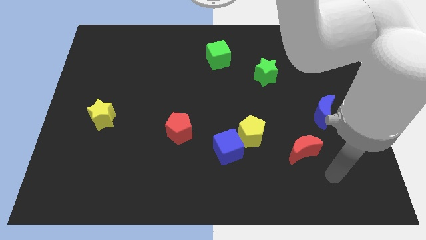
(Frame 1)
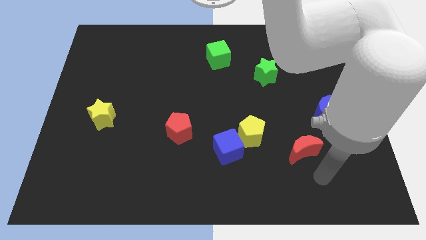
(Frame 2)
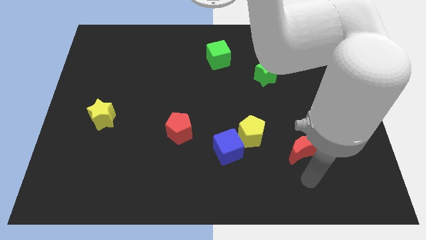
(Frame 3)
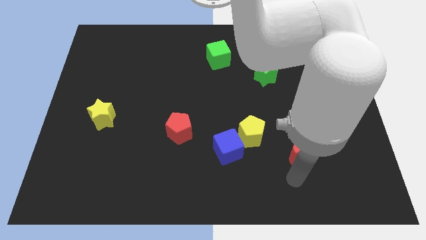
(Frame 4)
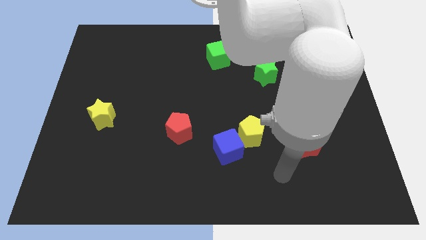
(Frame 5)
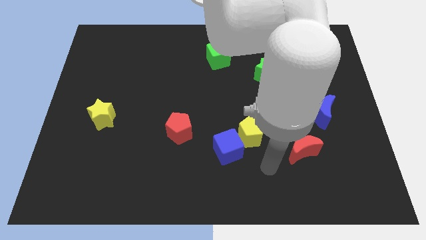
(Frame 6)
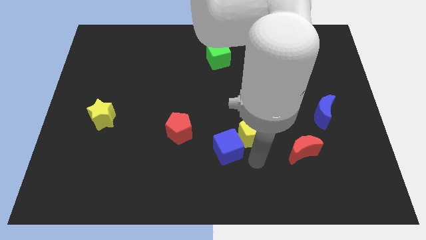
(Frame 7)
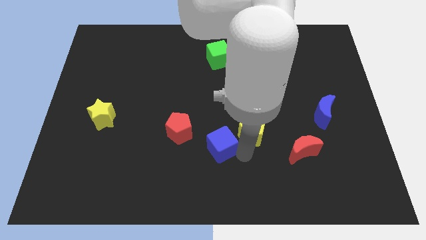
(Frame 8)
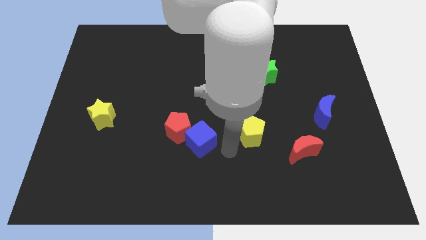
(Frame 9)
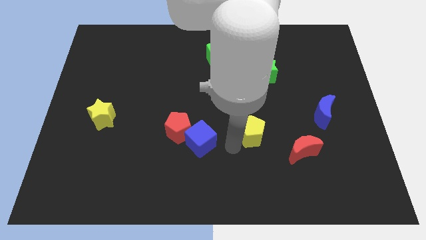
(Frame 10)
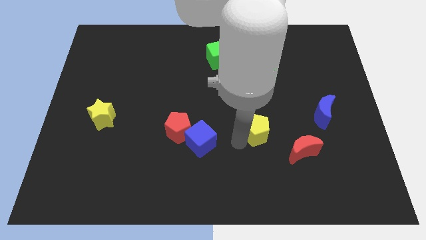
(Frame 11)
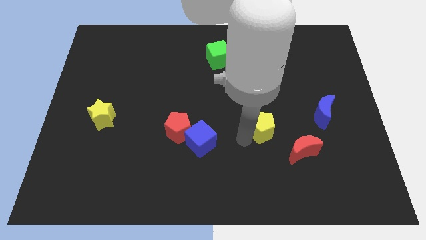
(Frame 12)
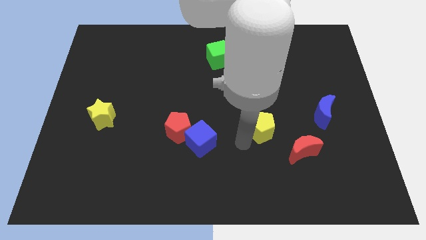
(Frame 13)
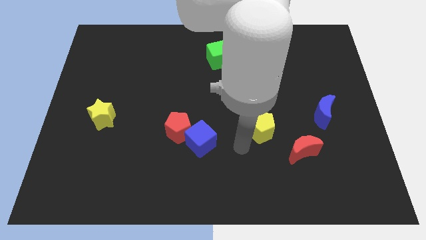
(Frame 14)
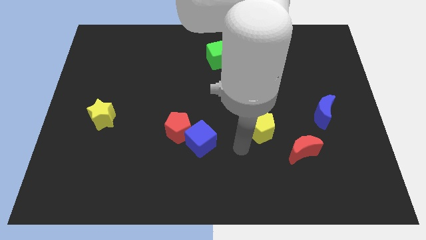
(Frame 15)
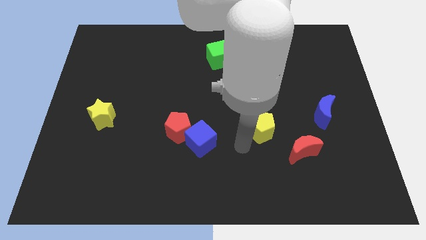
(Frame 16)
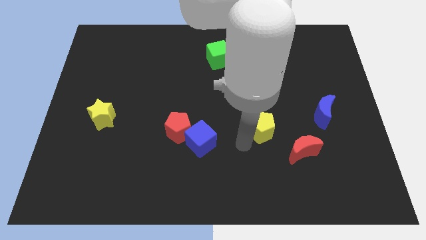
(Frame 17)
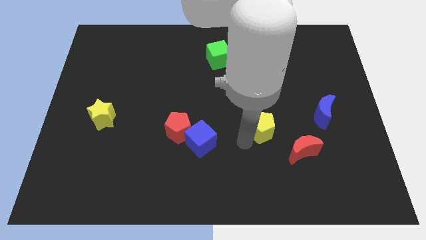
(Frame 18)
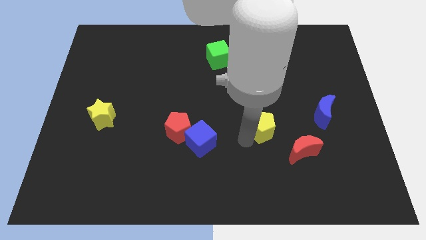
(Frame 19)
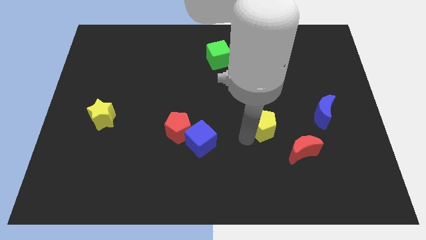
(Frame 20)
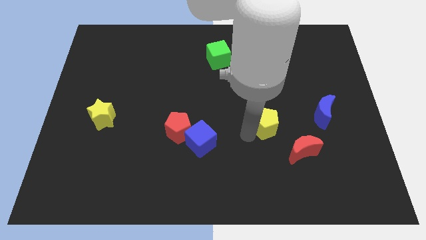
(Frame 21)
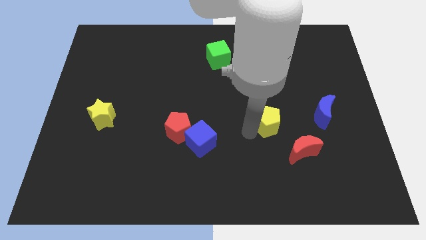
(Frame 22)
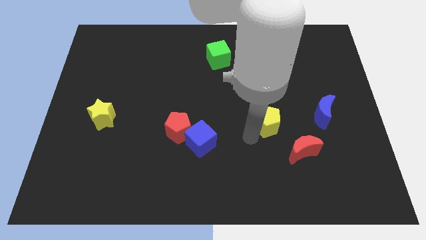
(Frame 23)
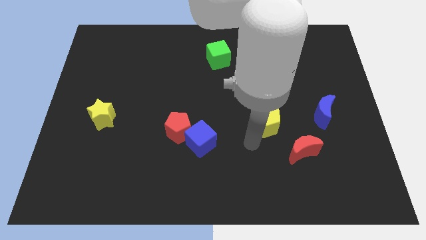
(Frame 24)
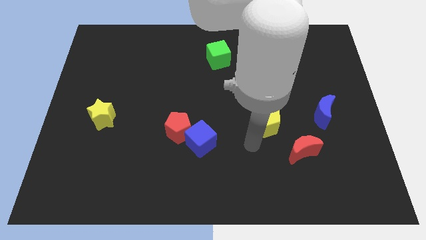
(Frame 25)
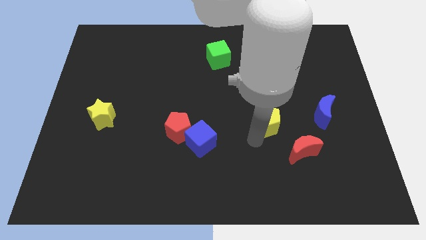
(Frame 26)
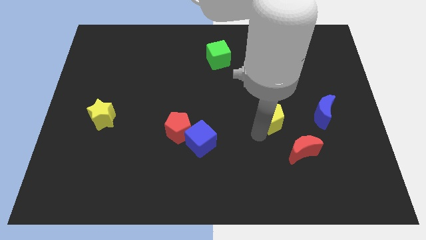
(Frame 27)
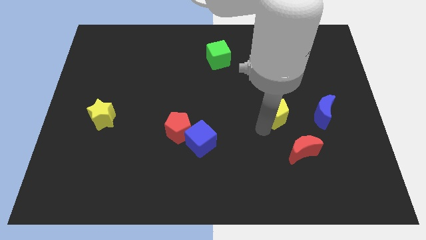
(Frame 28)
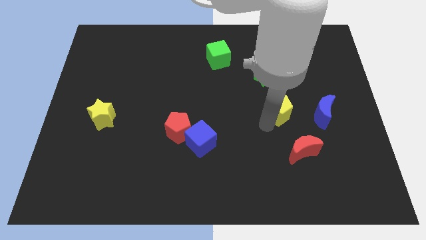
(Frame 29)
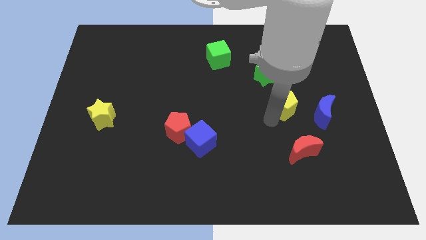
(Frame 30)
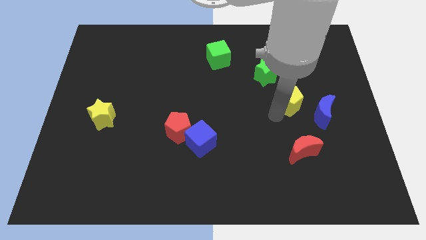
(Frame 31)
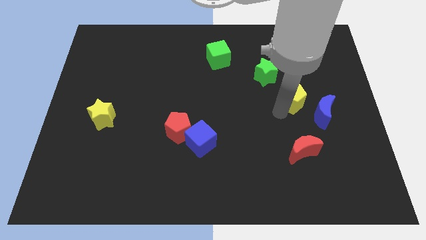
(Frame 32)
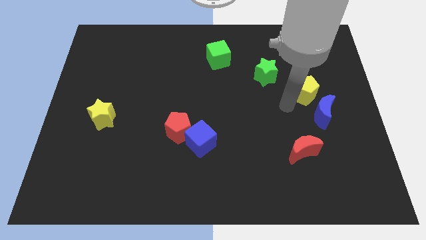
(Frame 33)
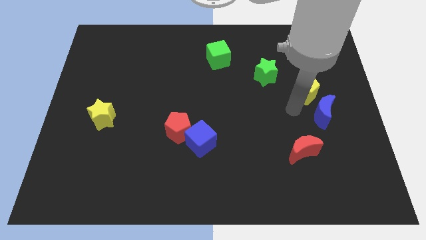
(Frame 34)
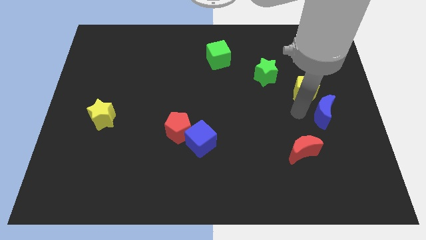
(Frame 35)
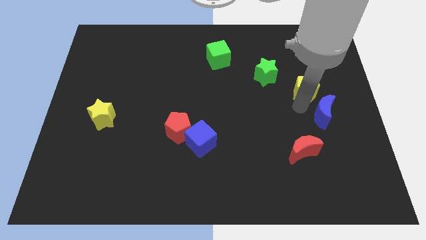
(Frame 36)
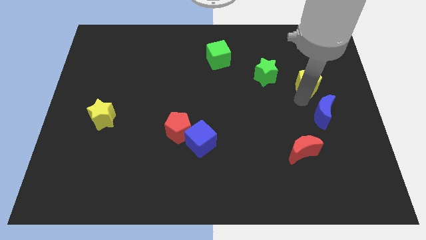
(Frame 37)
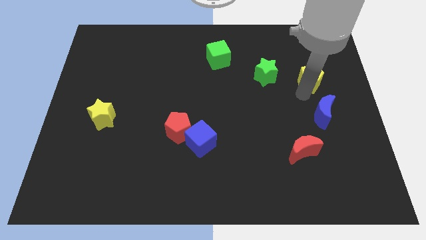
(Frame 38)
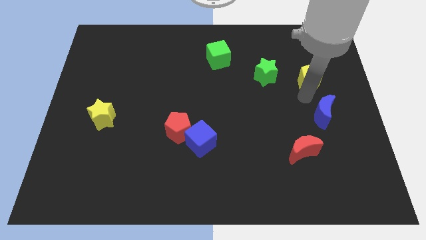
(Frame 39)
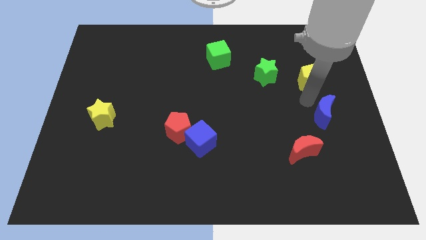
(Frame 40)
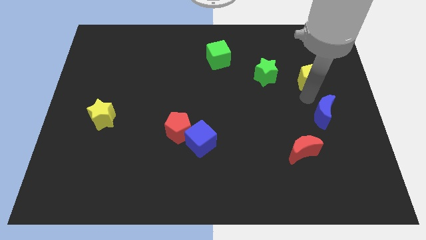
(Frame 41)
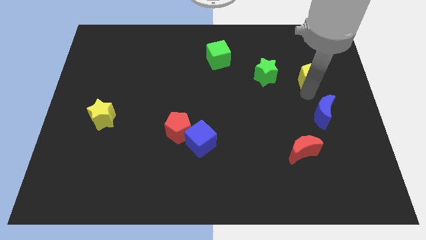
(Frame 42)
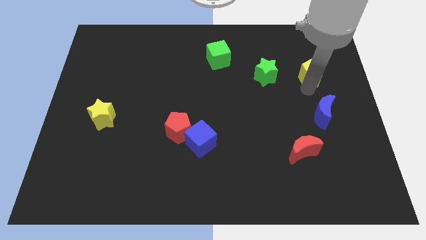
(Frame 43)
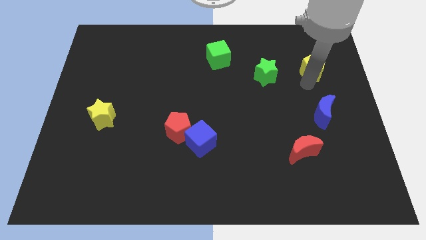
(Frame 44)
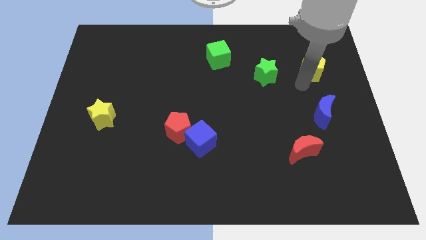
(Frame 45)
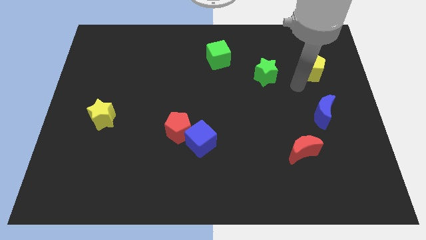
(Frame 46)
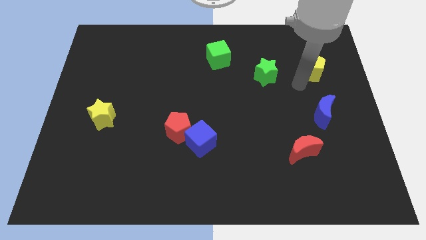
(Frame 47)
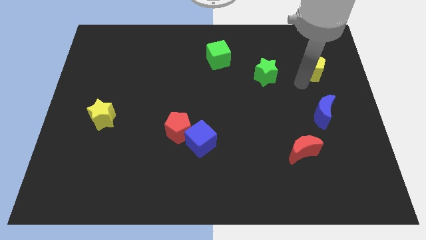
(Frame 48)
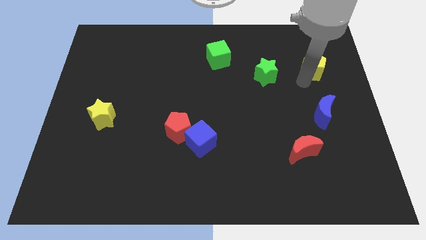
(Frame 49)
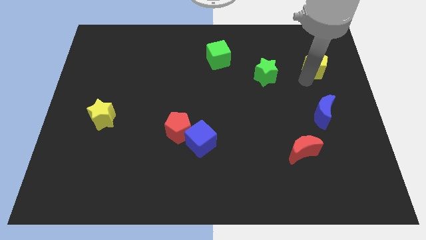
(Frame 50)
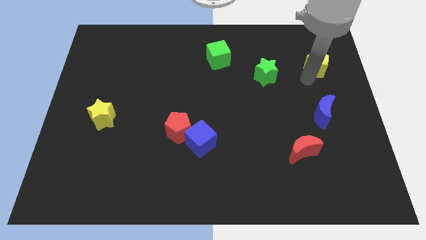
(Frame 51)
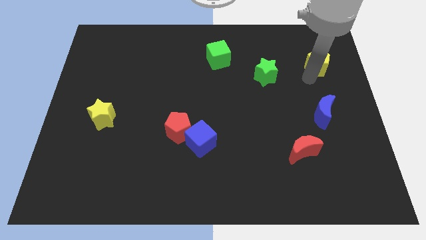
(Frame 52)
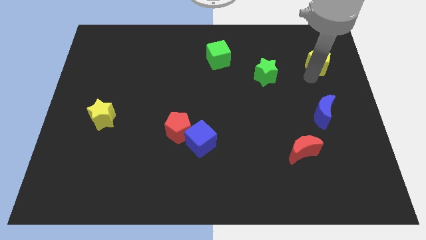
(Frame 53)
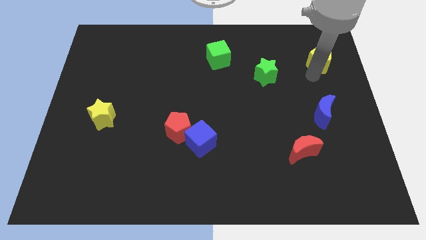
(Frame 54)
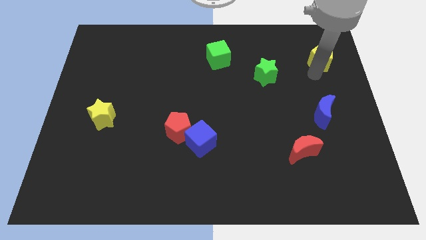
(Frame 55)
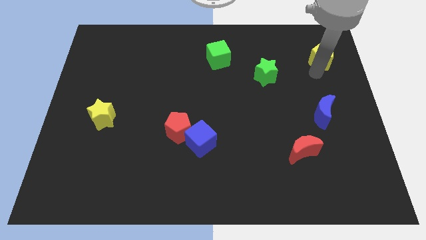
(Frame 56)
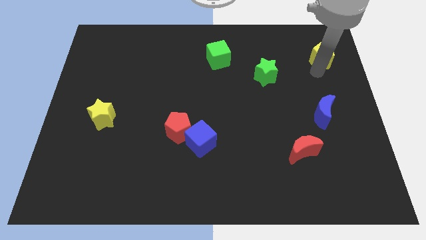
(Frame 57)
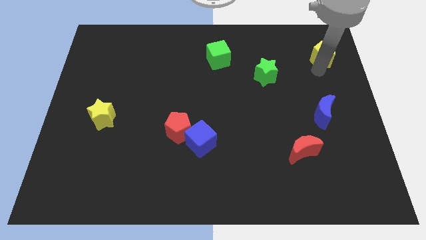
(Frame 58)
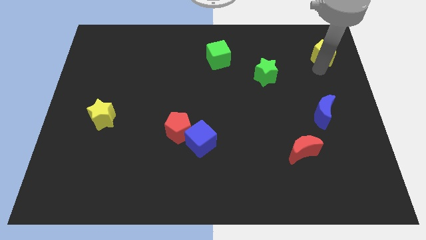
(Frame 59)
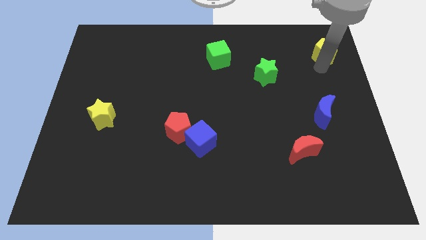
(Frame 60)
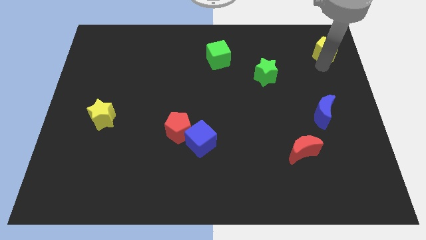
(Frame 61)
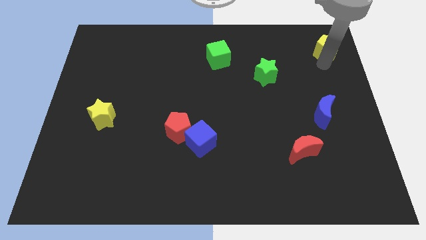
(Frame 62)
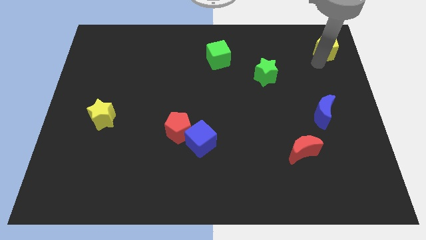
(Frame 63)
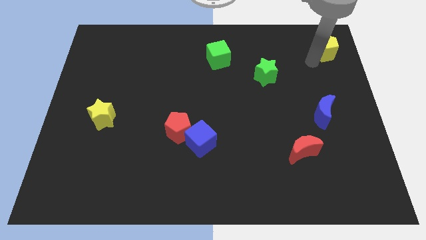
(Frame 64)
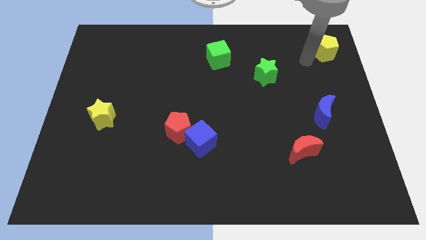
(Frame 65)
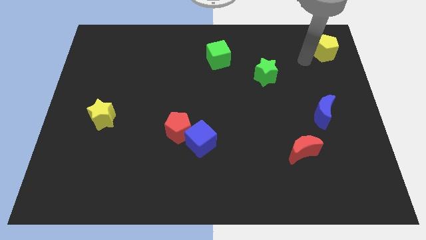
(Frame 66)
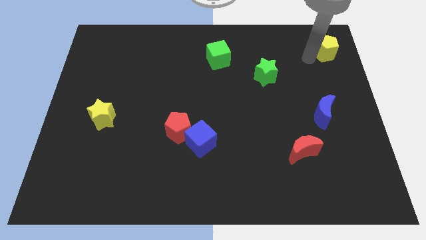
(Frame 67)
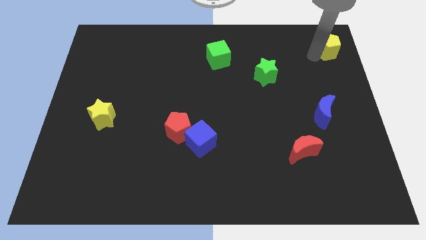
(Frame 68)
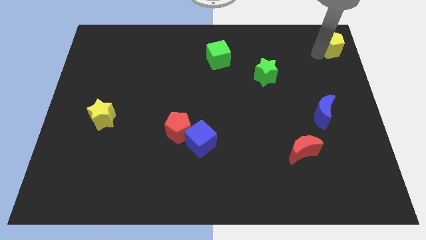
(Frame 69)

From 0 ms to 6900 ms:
move the yellow pentagon to the top right corner
